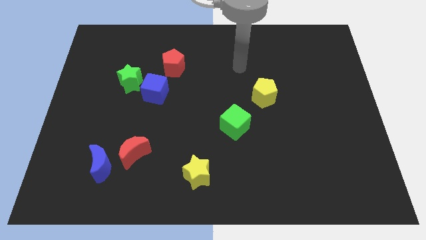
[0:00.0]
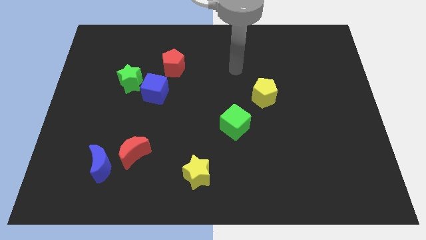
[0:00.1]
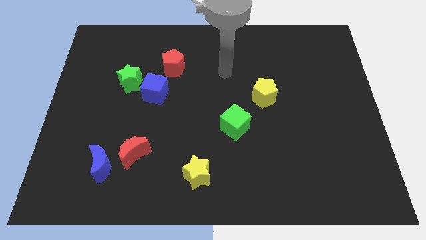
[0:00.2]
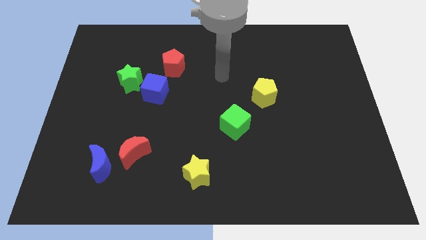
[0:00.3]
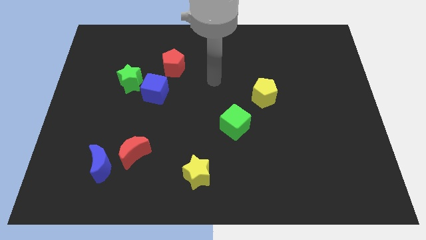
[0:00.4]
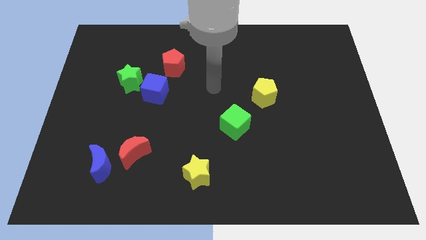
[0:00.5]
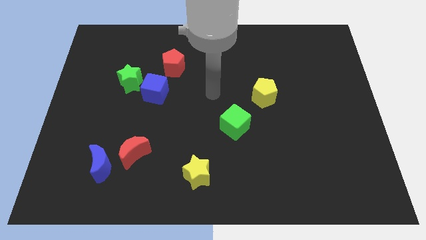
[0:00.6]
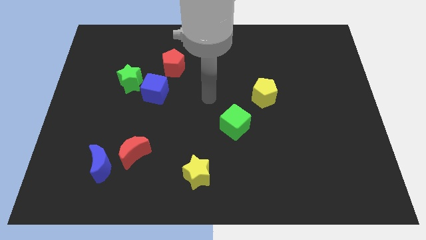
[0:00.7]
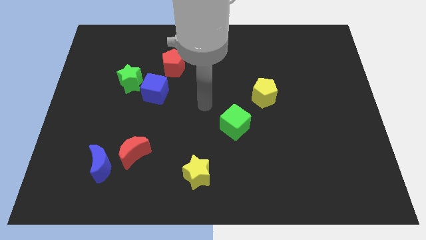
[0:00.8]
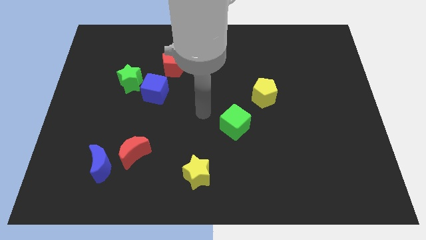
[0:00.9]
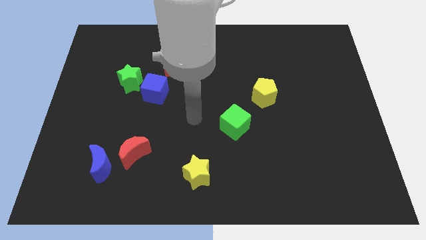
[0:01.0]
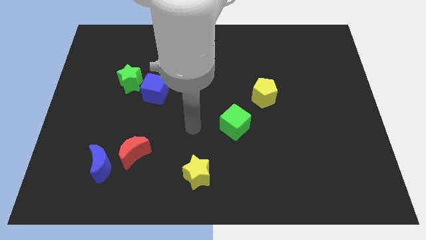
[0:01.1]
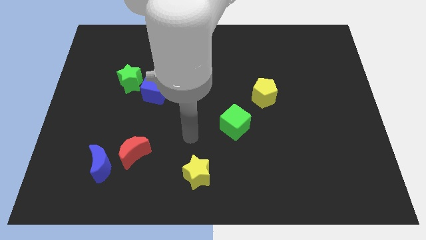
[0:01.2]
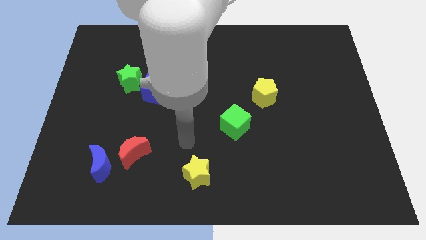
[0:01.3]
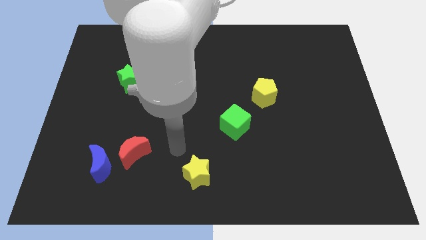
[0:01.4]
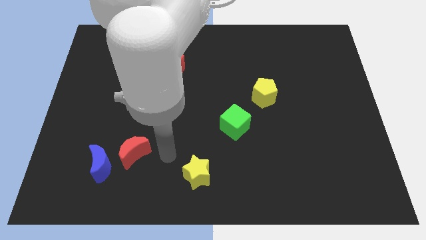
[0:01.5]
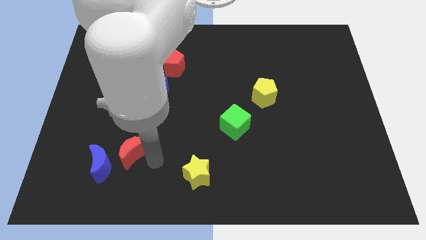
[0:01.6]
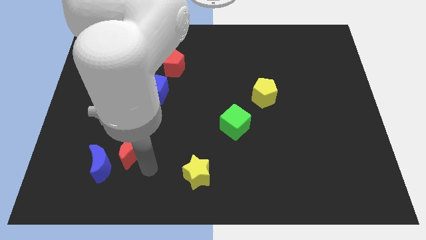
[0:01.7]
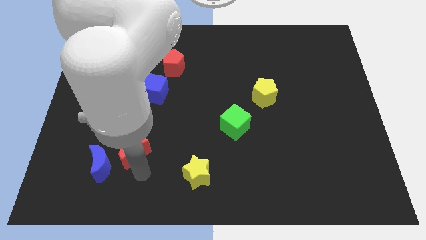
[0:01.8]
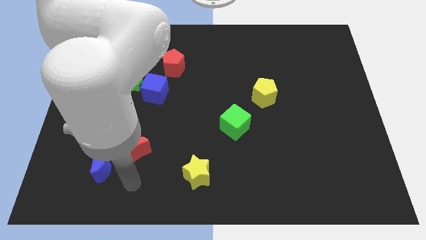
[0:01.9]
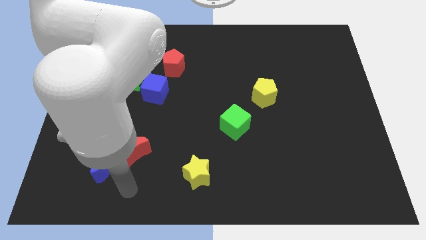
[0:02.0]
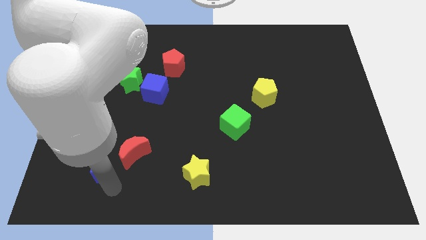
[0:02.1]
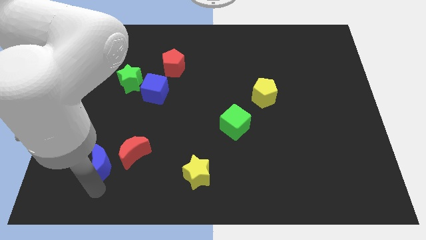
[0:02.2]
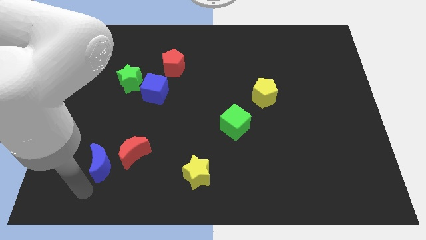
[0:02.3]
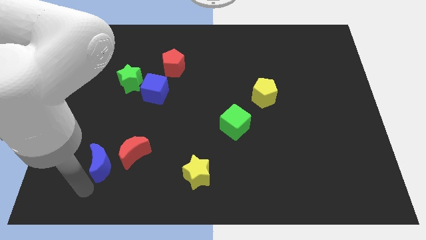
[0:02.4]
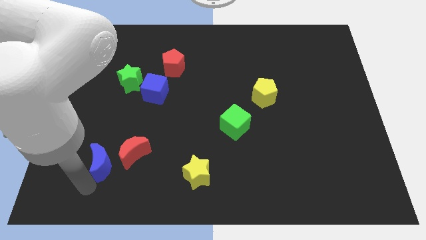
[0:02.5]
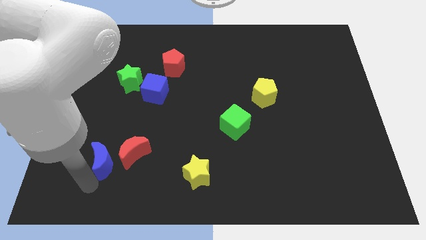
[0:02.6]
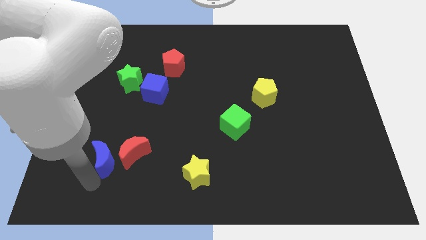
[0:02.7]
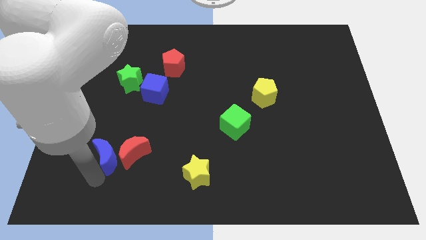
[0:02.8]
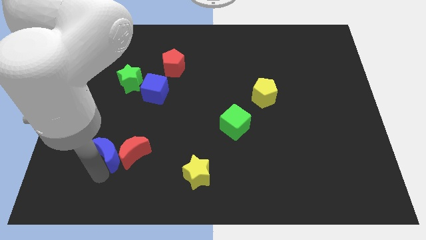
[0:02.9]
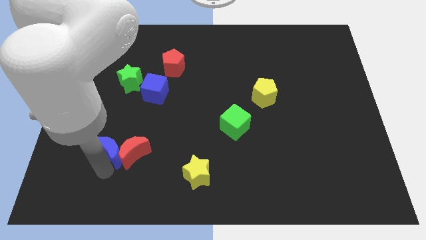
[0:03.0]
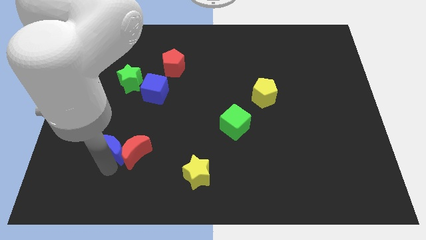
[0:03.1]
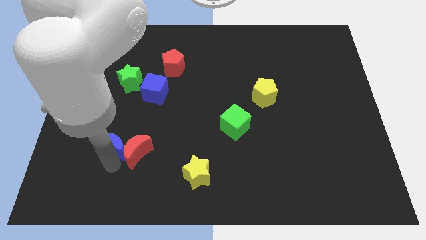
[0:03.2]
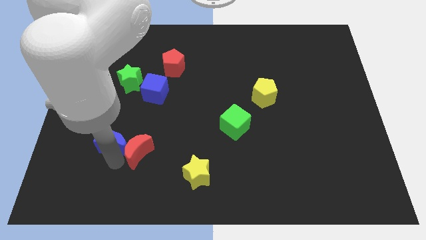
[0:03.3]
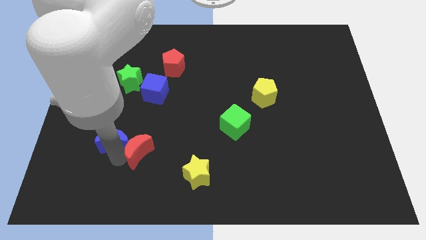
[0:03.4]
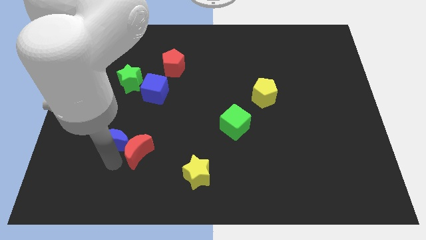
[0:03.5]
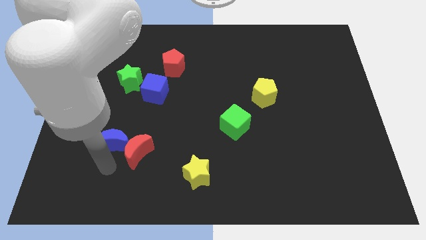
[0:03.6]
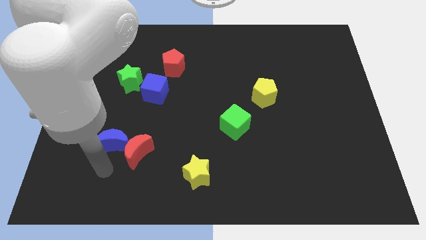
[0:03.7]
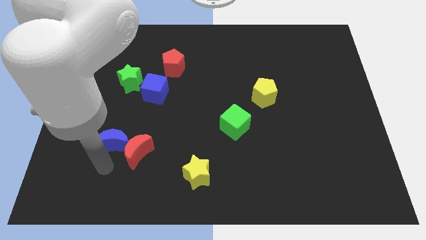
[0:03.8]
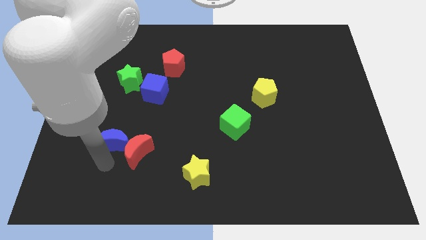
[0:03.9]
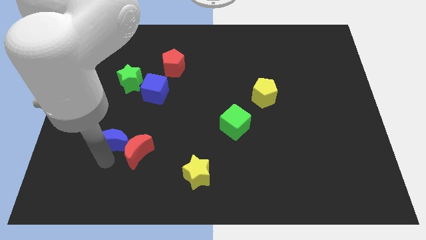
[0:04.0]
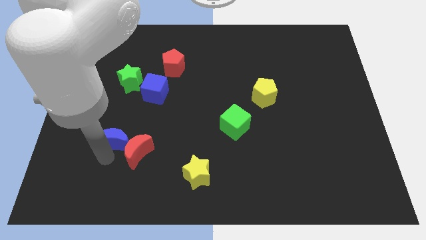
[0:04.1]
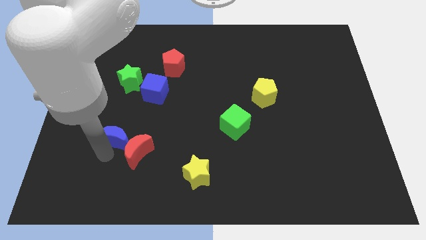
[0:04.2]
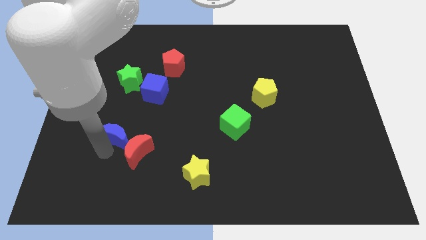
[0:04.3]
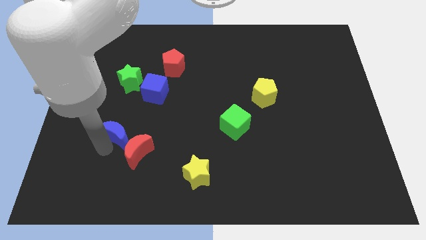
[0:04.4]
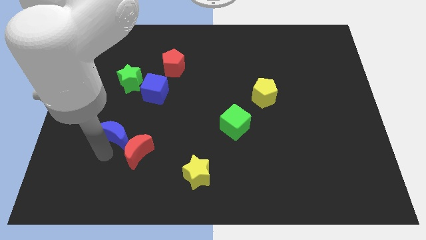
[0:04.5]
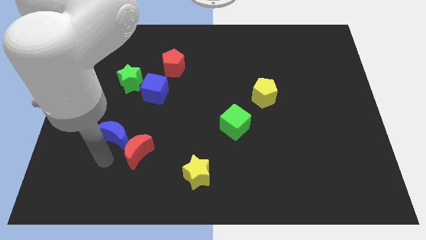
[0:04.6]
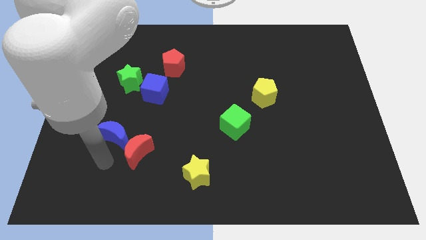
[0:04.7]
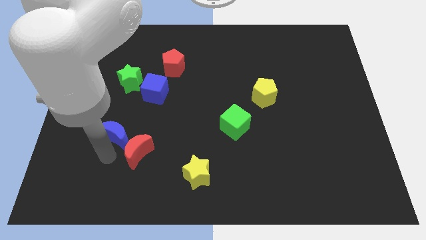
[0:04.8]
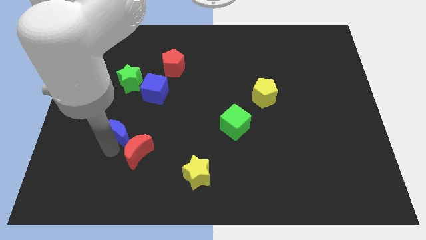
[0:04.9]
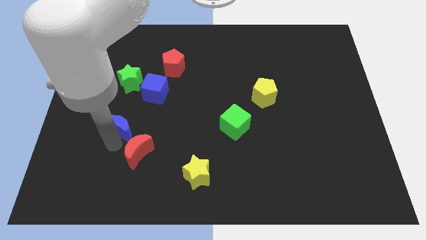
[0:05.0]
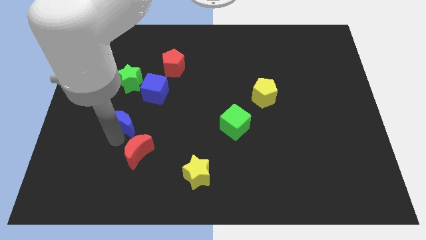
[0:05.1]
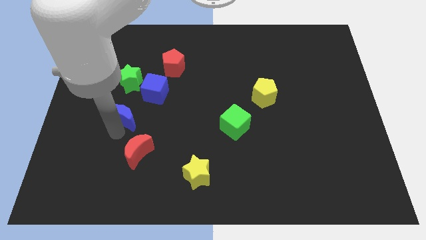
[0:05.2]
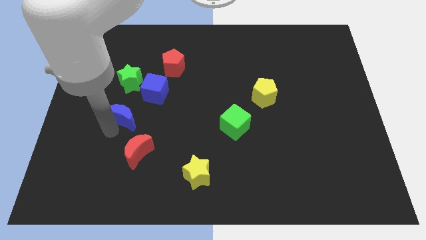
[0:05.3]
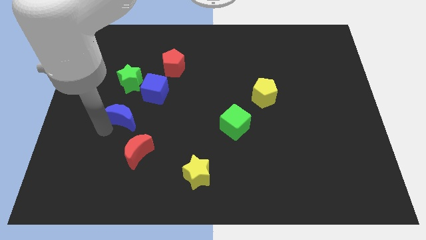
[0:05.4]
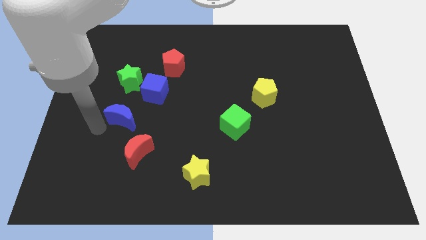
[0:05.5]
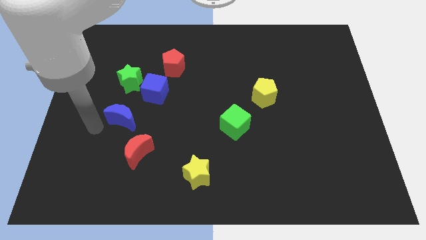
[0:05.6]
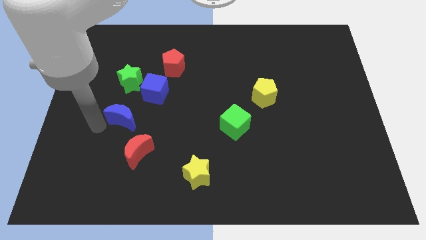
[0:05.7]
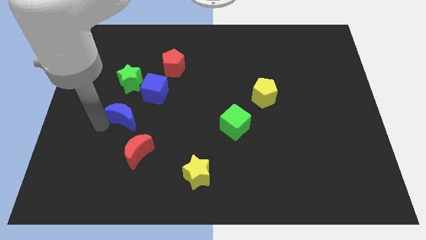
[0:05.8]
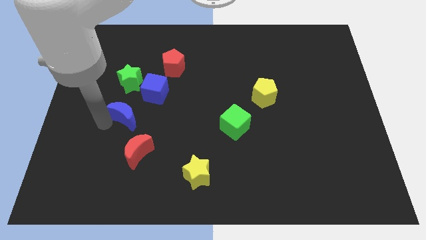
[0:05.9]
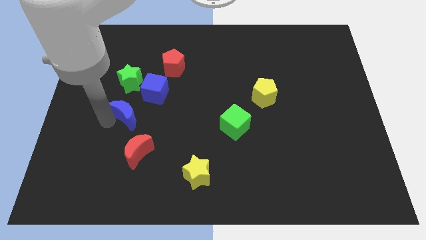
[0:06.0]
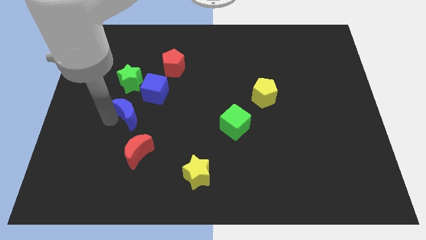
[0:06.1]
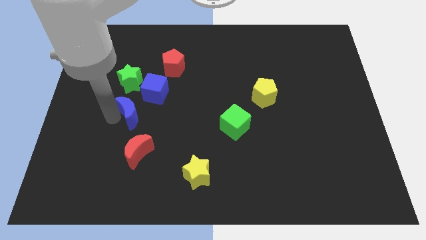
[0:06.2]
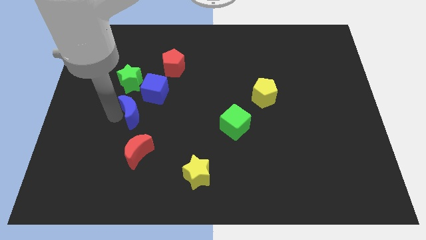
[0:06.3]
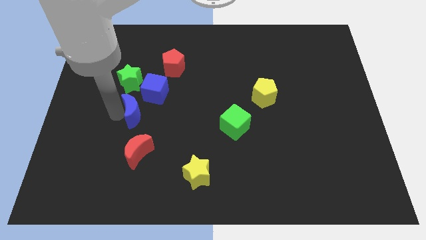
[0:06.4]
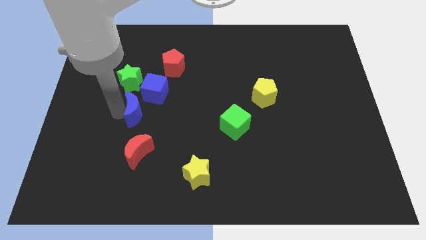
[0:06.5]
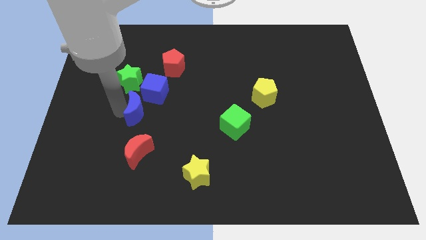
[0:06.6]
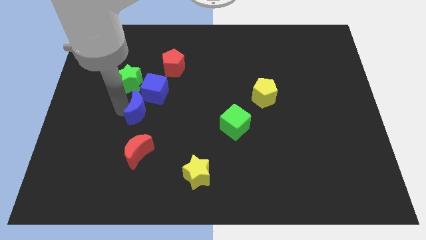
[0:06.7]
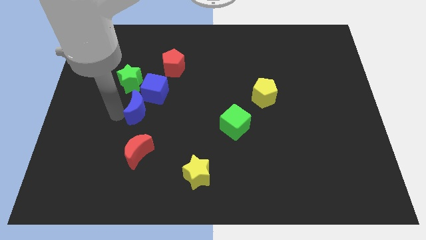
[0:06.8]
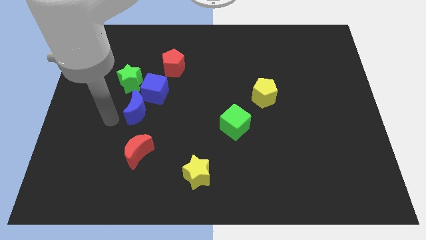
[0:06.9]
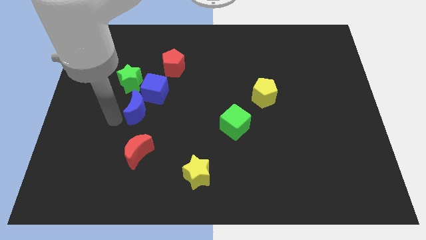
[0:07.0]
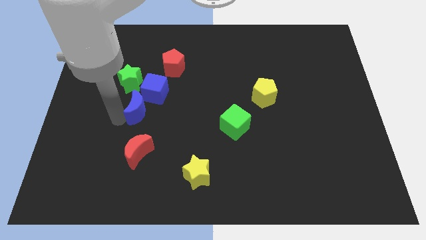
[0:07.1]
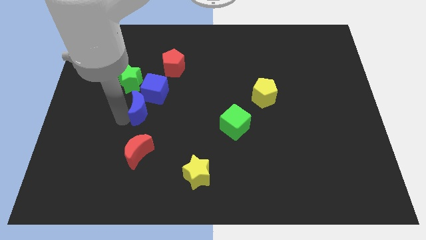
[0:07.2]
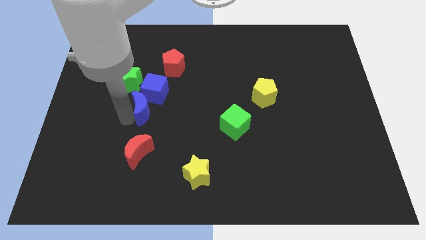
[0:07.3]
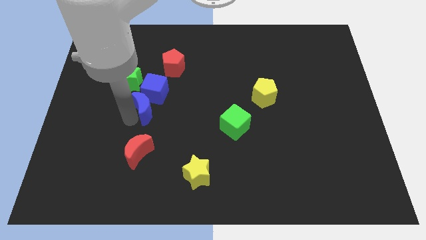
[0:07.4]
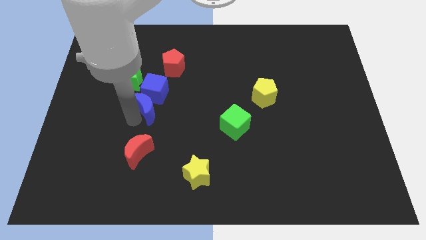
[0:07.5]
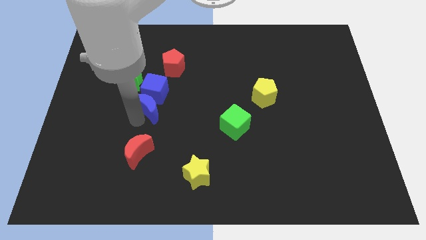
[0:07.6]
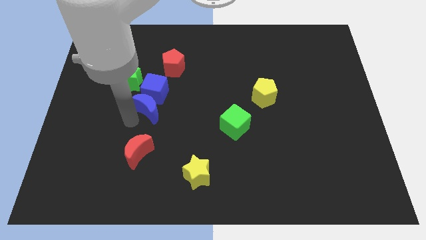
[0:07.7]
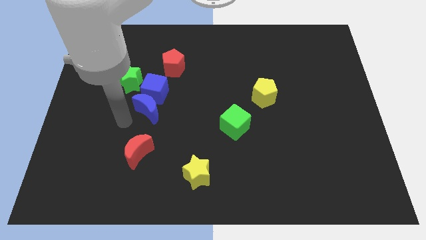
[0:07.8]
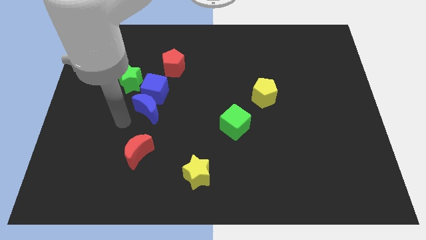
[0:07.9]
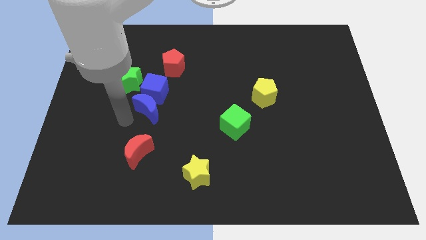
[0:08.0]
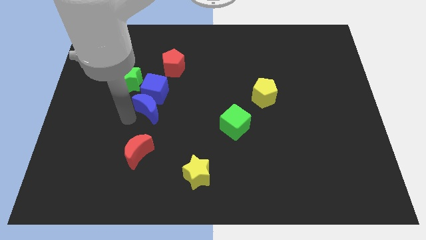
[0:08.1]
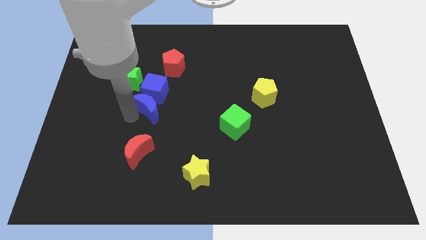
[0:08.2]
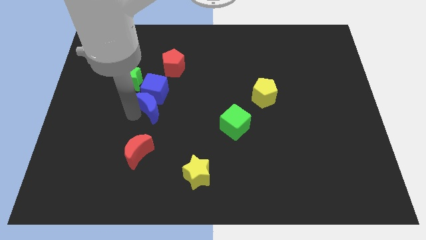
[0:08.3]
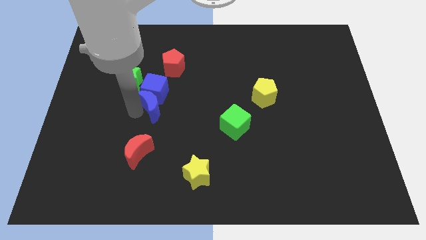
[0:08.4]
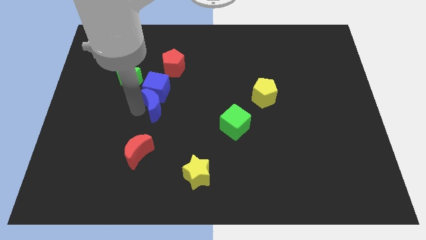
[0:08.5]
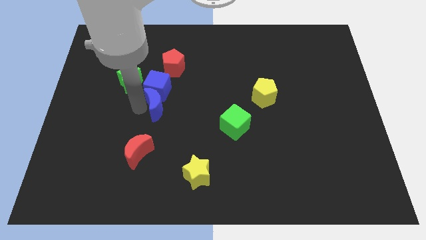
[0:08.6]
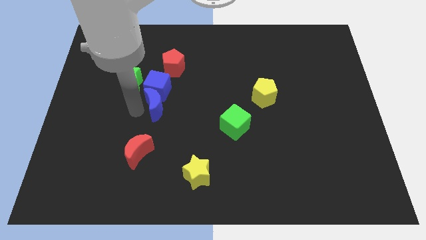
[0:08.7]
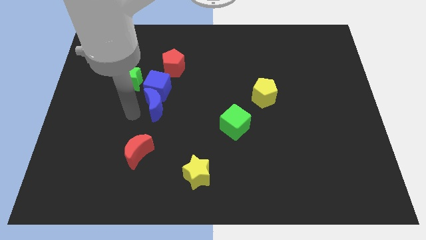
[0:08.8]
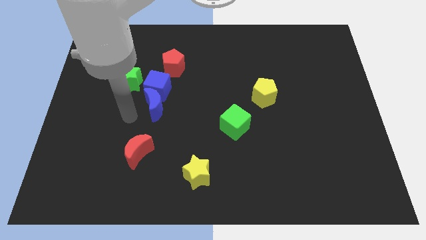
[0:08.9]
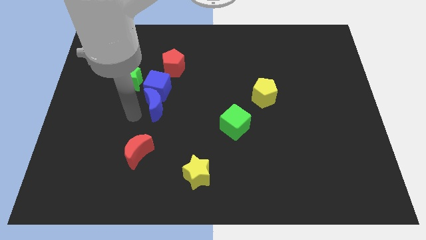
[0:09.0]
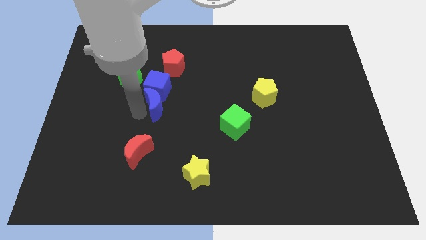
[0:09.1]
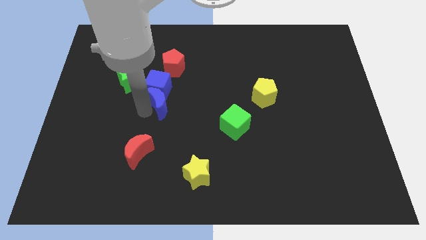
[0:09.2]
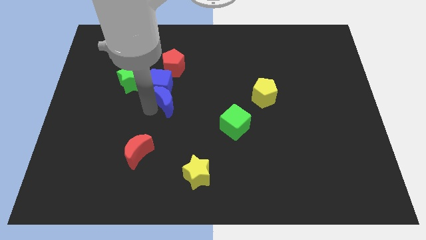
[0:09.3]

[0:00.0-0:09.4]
push the blue moon upwards and then to the right
